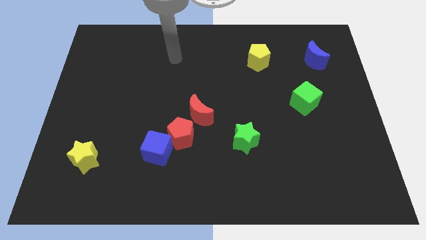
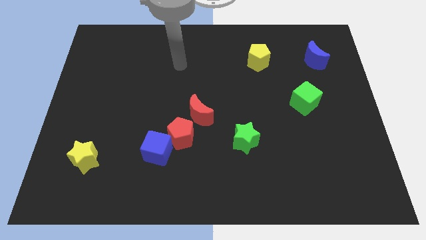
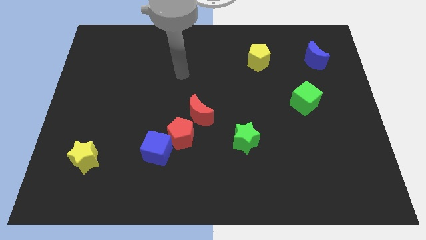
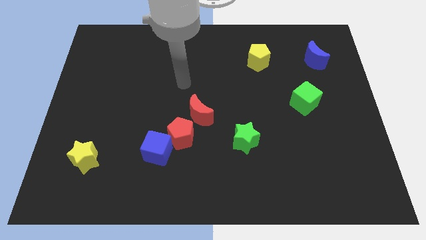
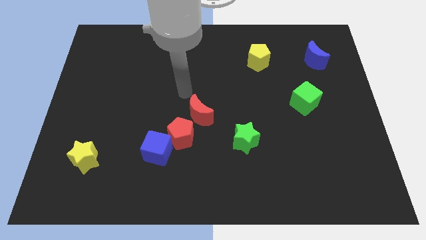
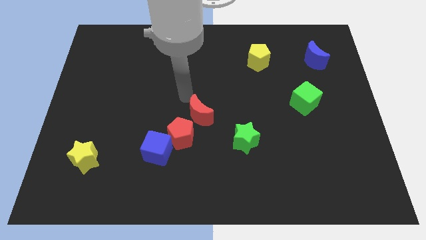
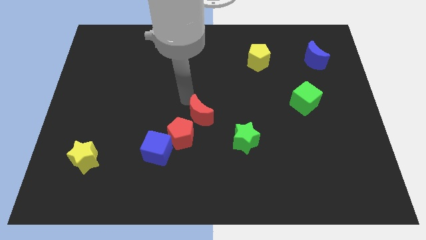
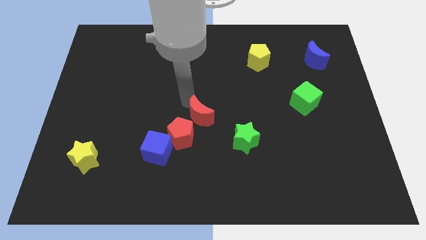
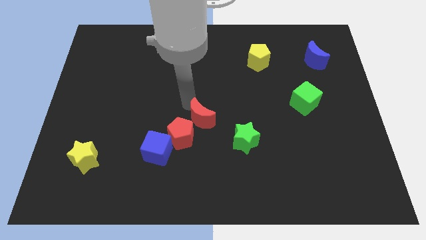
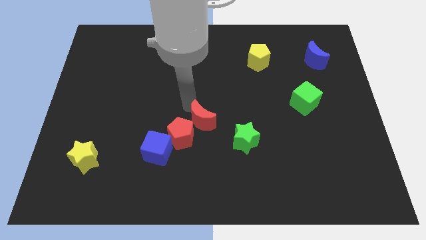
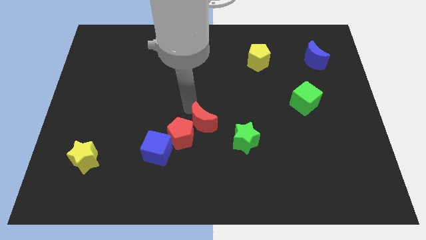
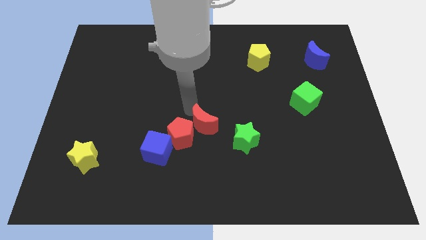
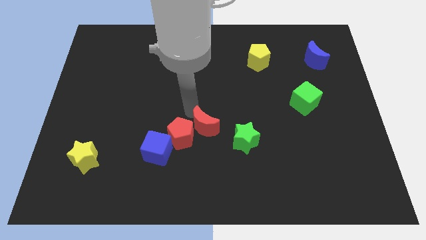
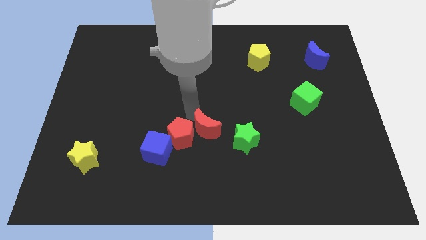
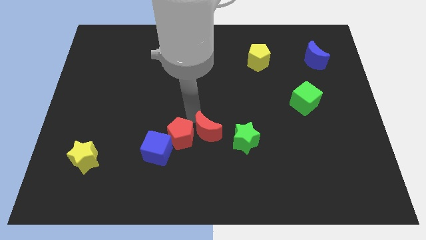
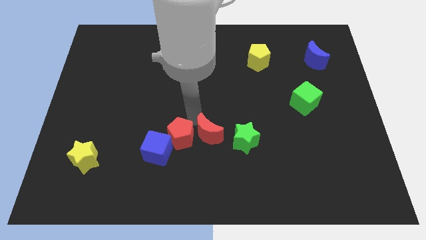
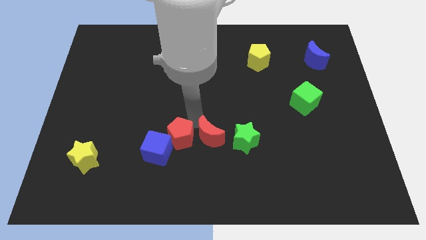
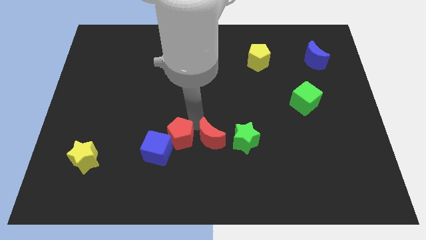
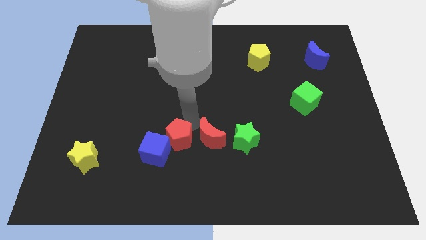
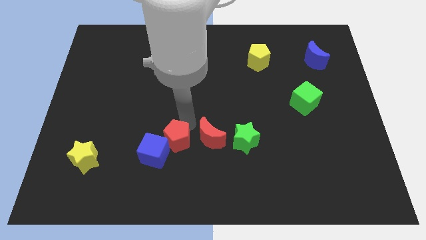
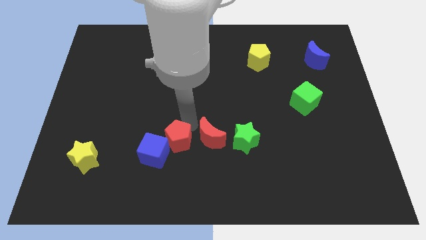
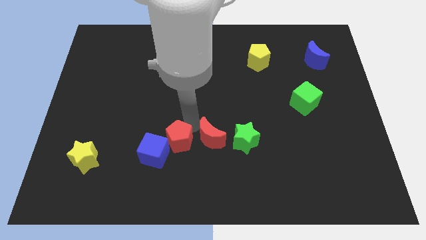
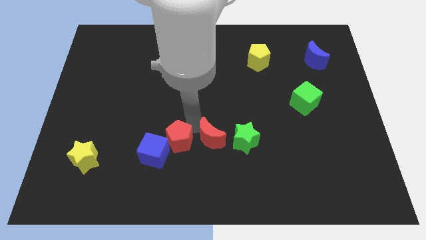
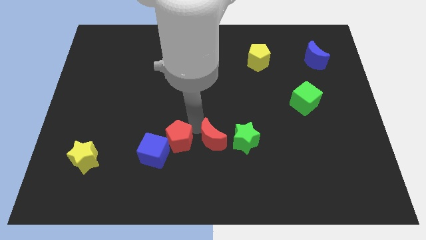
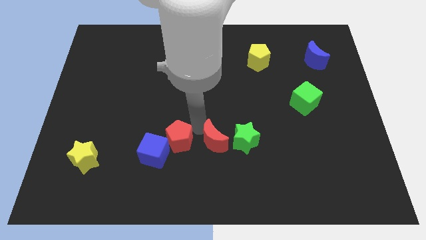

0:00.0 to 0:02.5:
move the red moon slightly down and then to the right

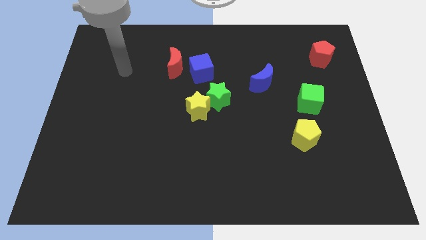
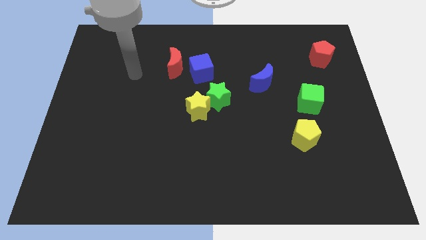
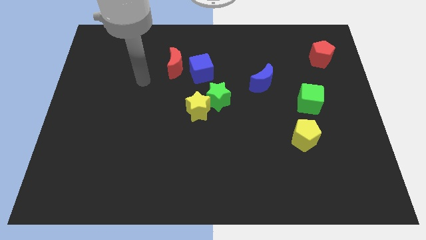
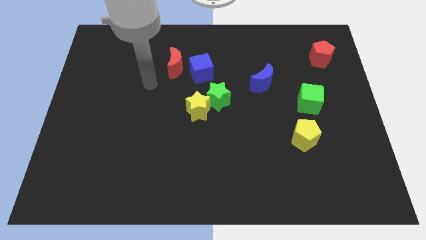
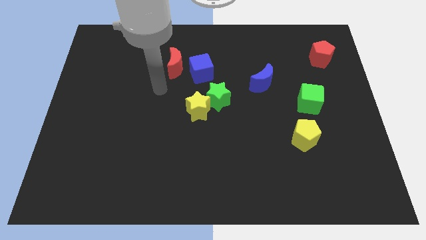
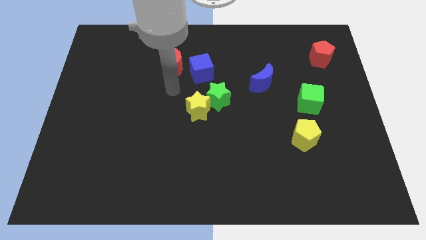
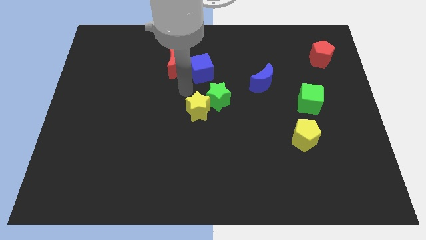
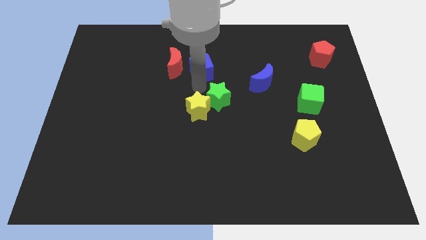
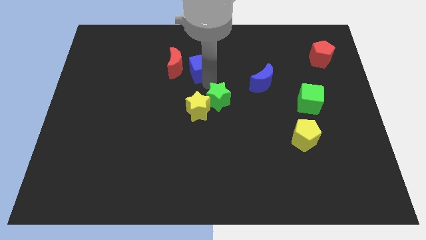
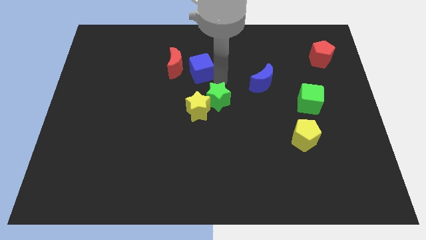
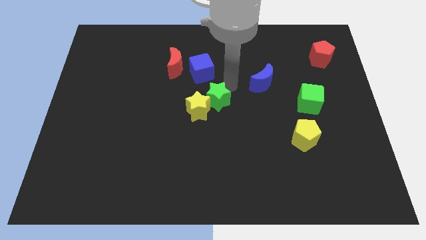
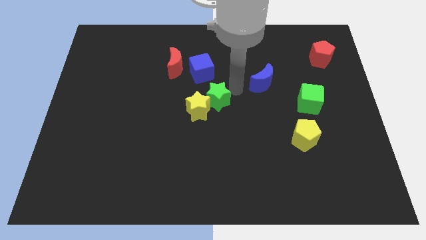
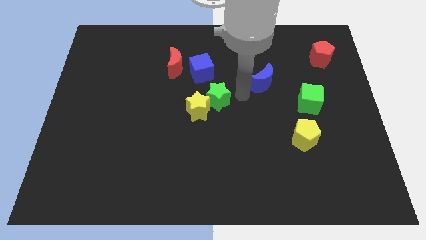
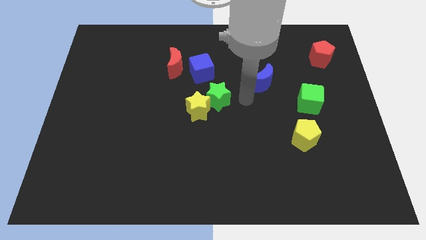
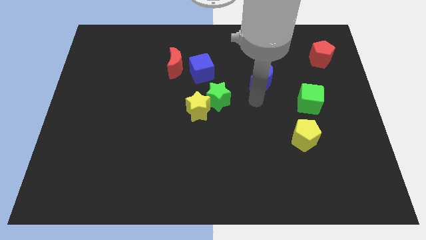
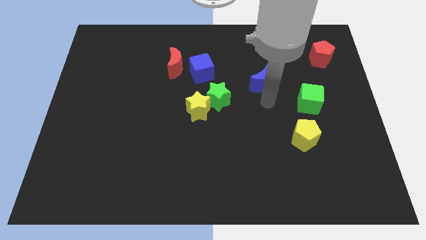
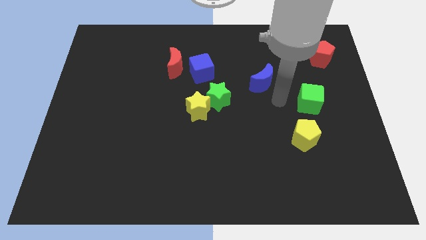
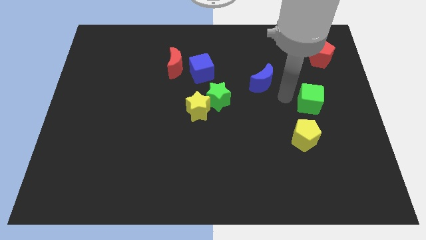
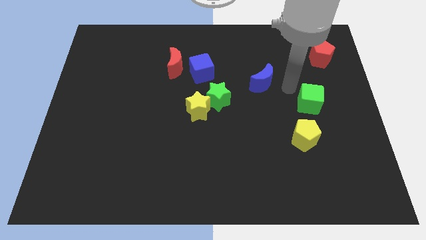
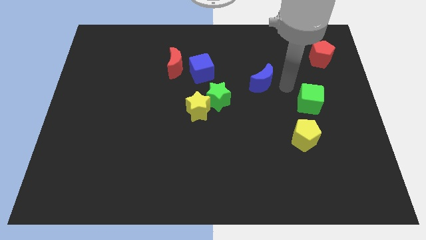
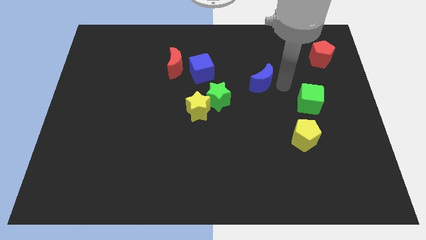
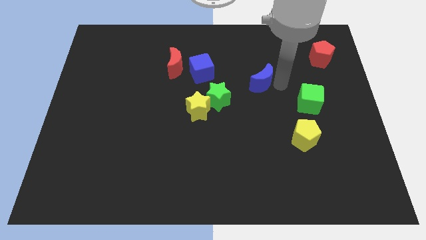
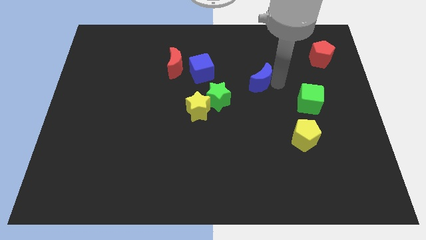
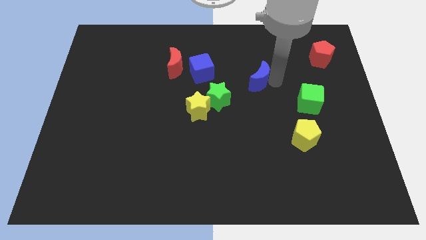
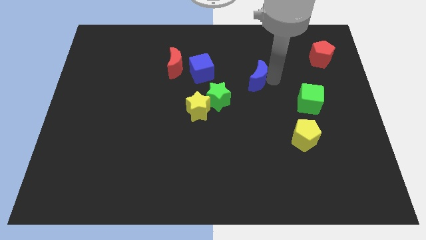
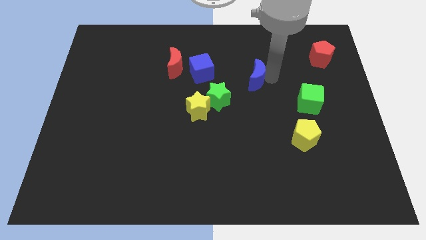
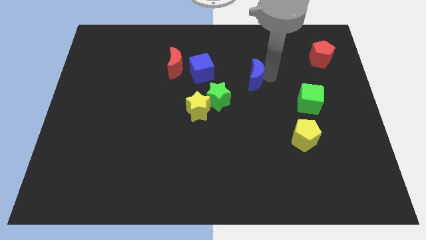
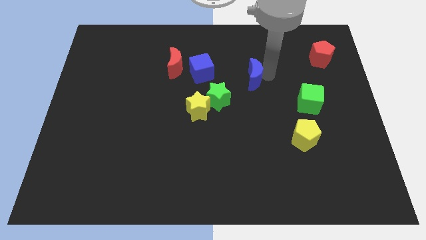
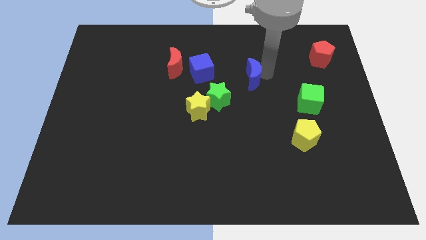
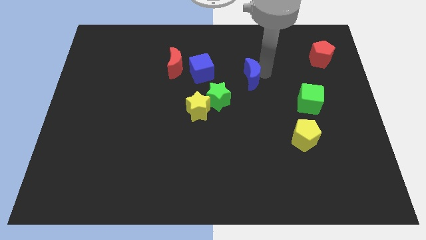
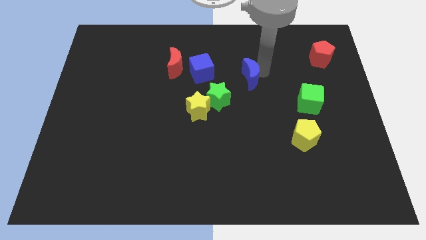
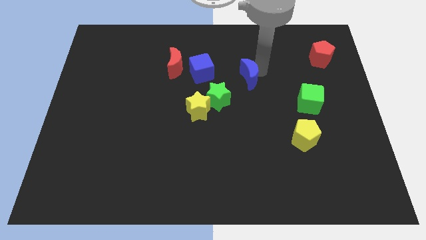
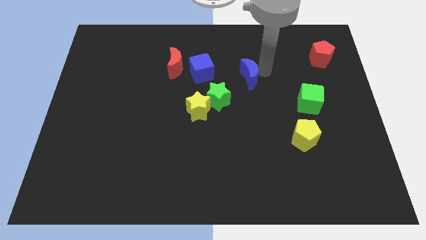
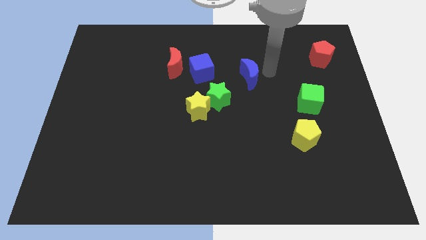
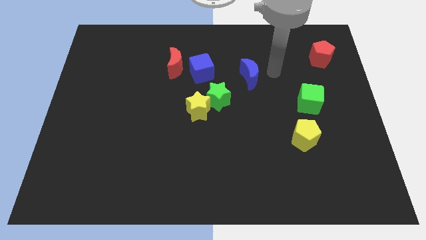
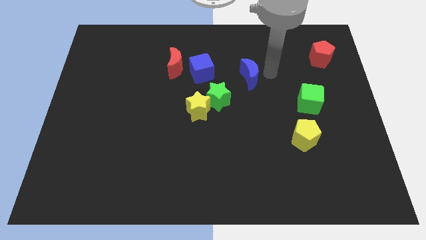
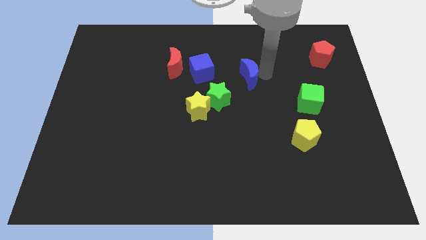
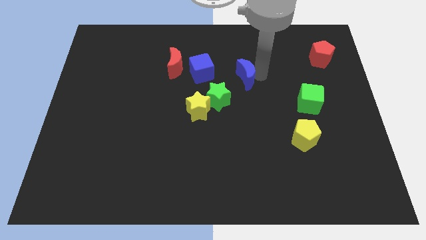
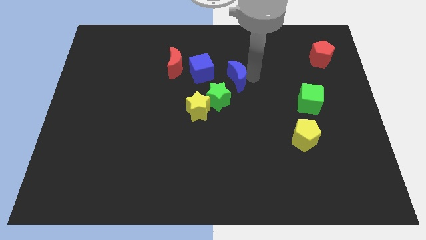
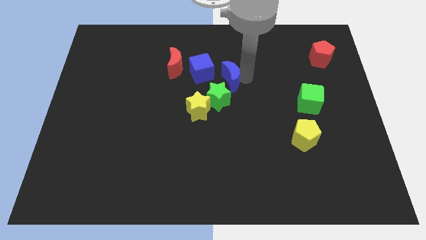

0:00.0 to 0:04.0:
slightly slide the blue moon to the left

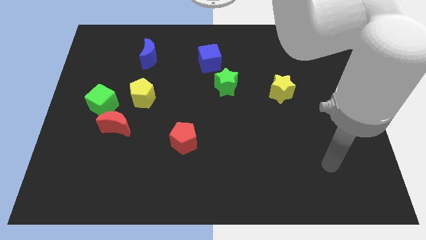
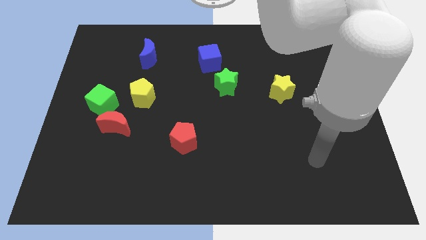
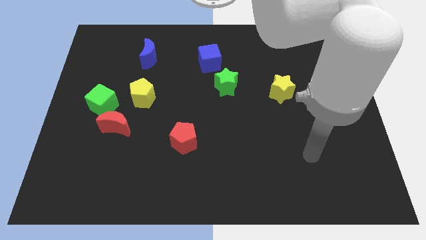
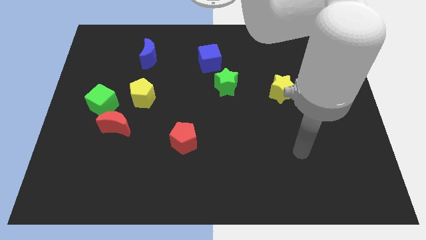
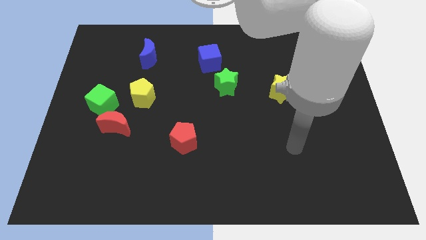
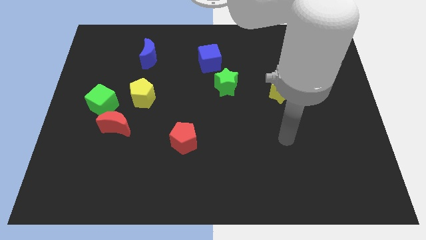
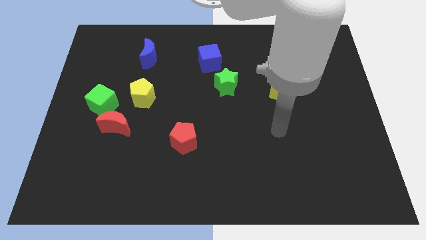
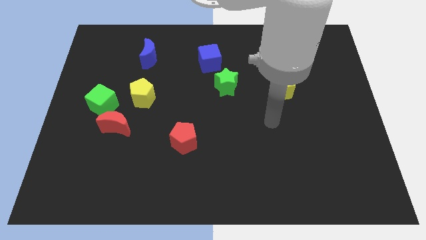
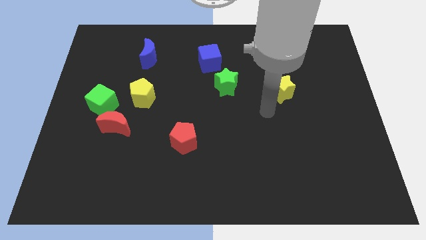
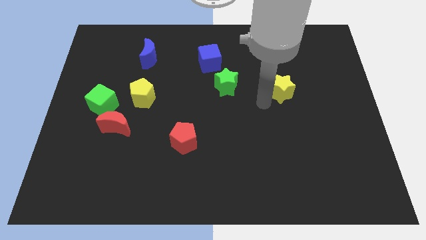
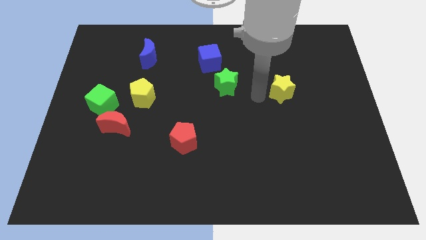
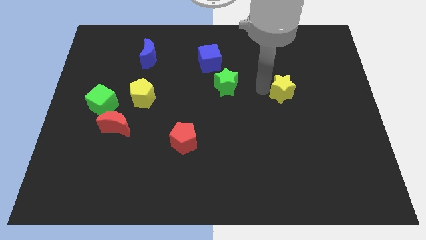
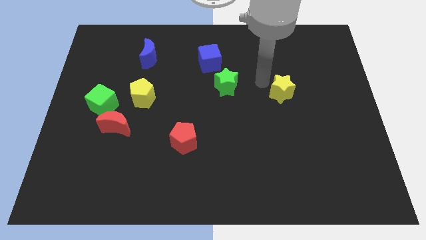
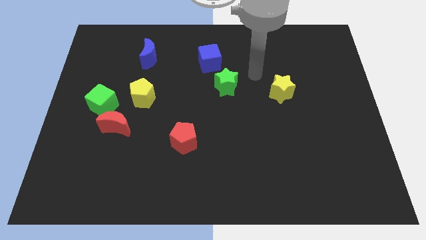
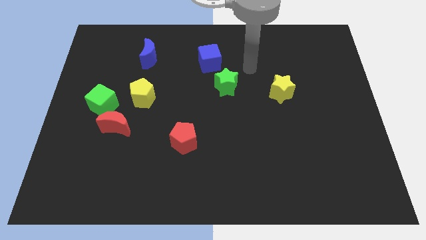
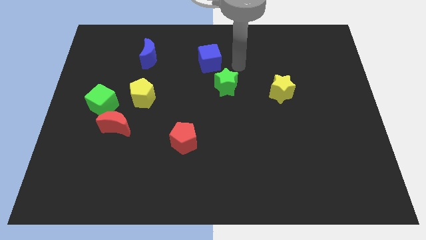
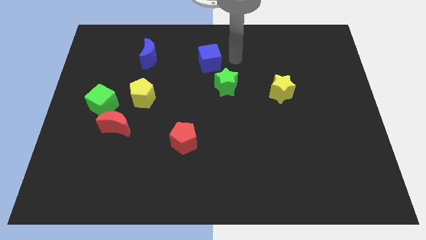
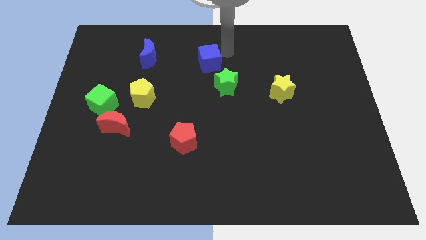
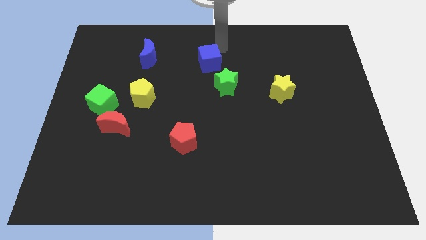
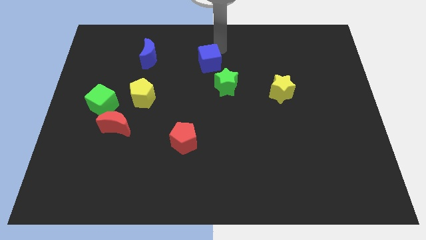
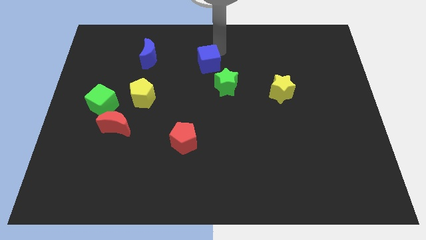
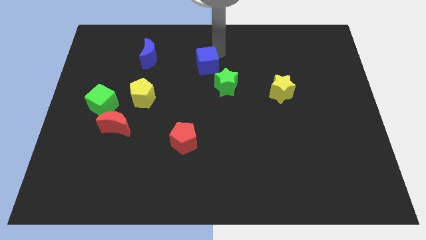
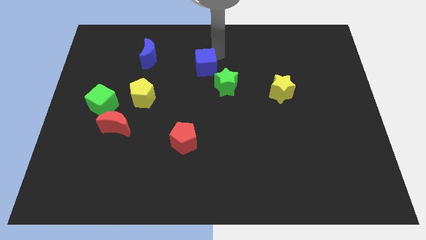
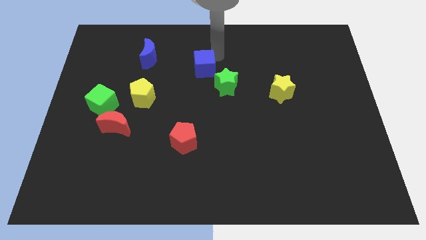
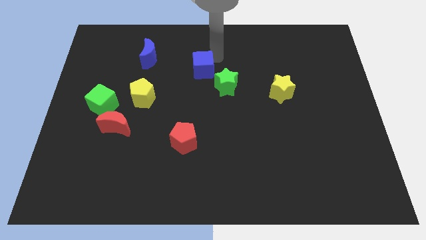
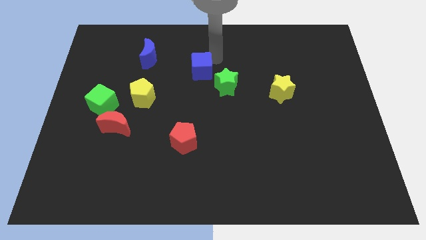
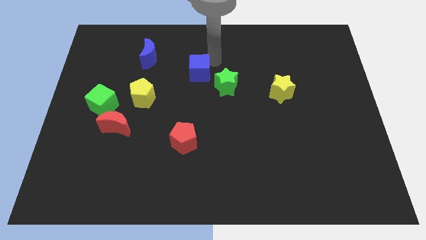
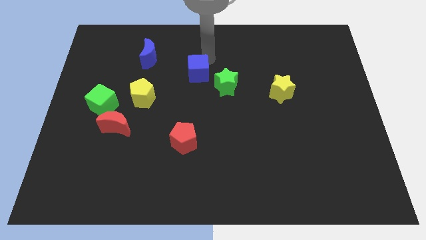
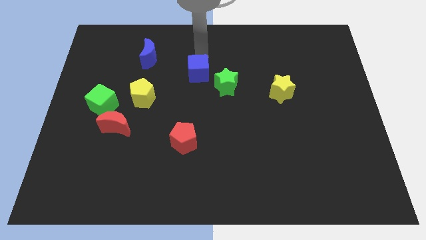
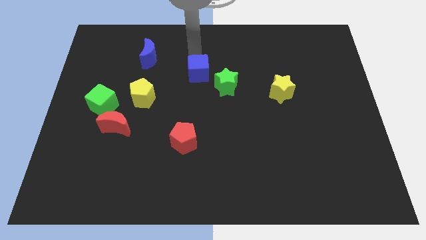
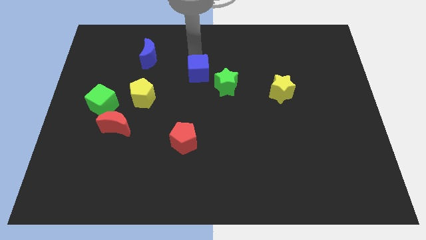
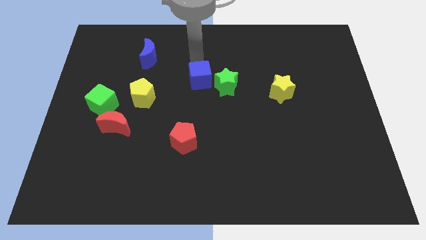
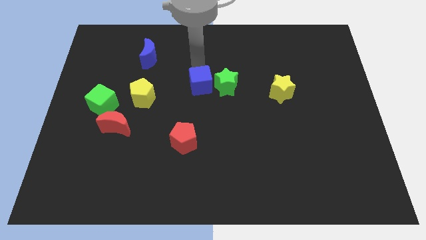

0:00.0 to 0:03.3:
move the blue cube down a little bit
